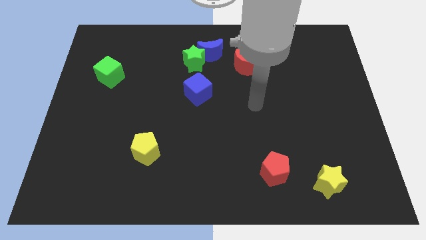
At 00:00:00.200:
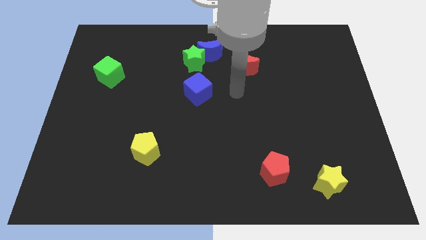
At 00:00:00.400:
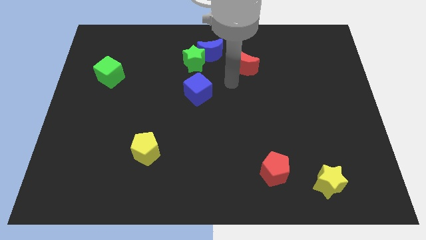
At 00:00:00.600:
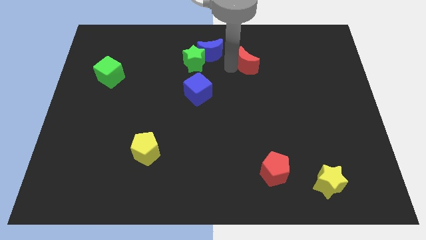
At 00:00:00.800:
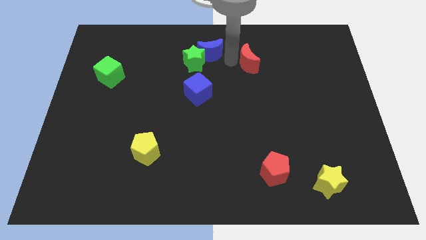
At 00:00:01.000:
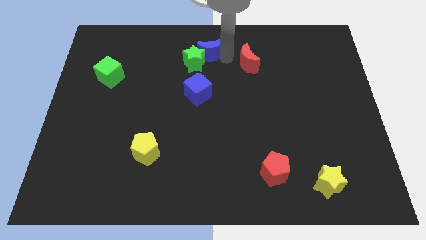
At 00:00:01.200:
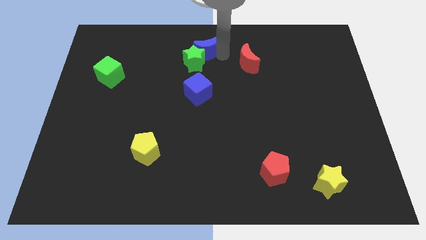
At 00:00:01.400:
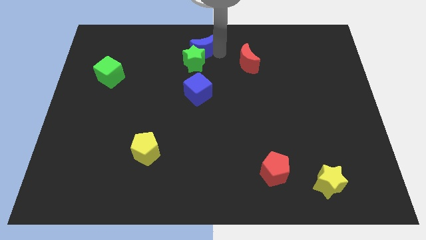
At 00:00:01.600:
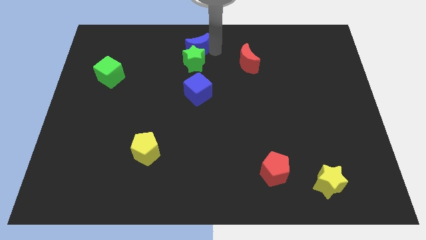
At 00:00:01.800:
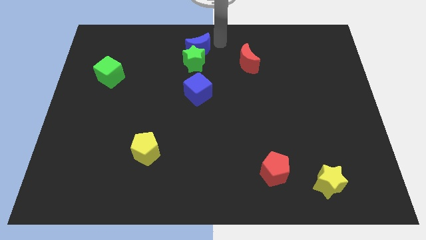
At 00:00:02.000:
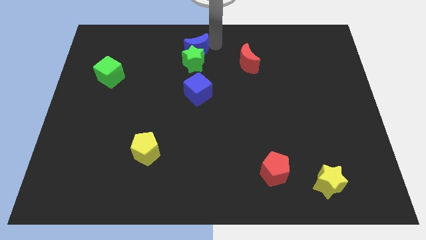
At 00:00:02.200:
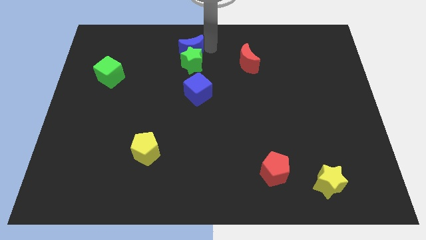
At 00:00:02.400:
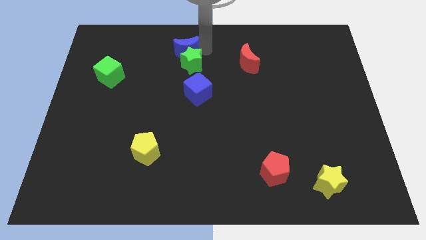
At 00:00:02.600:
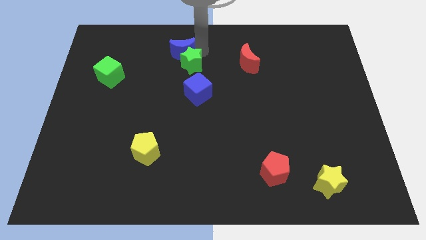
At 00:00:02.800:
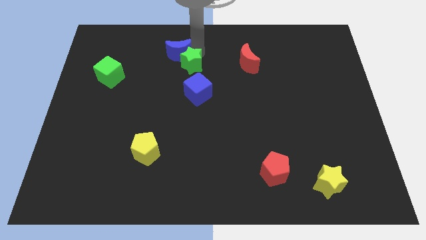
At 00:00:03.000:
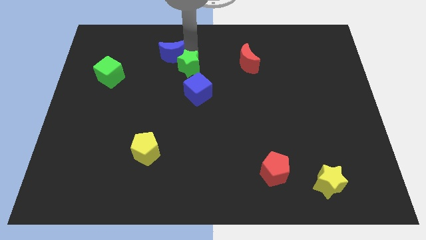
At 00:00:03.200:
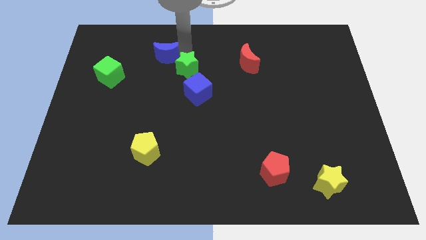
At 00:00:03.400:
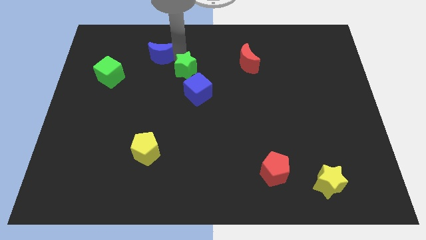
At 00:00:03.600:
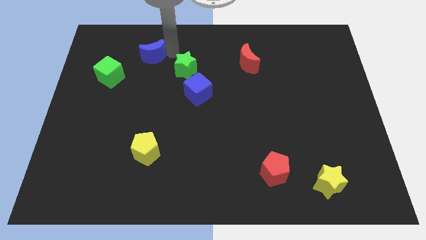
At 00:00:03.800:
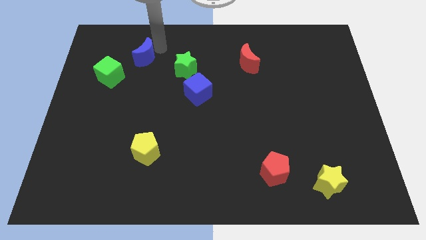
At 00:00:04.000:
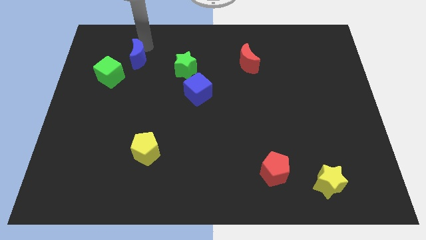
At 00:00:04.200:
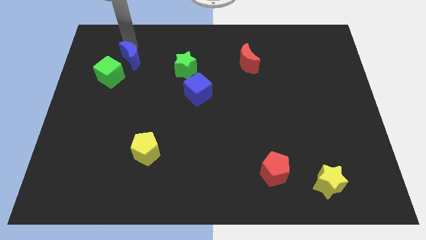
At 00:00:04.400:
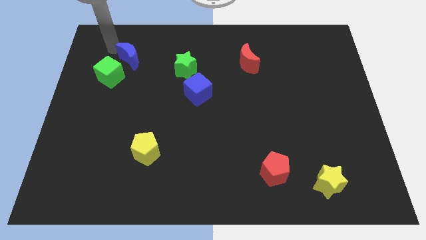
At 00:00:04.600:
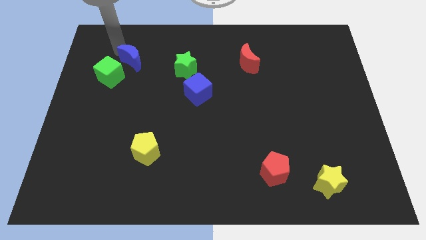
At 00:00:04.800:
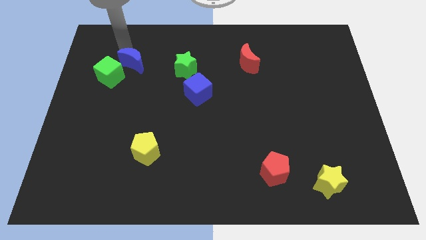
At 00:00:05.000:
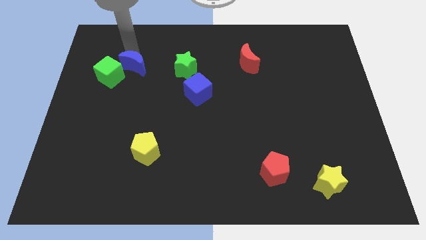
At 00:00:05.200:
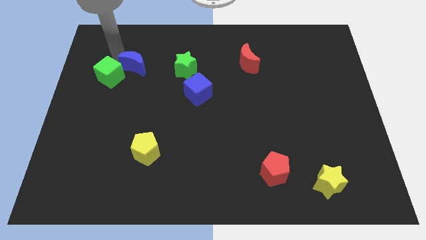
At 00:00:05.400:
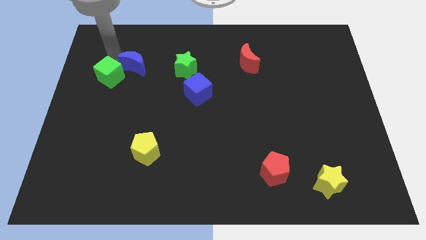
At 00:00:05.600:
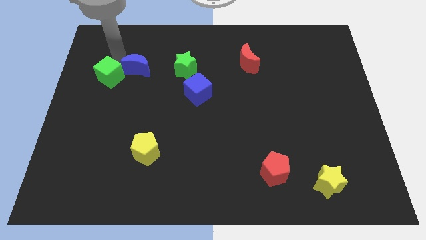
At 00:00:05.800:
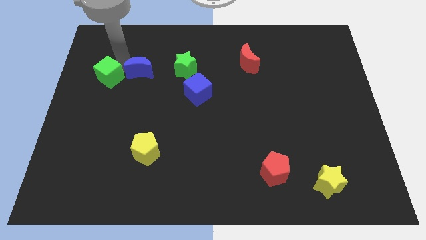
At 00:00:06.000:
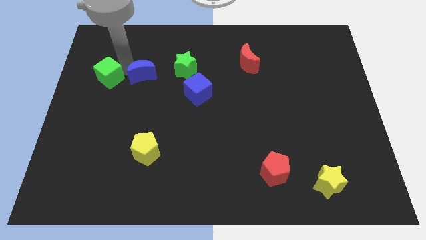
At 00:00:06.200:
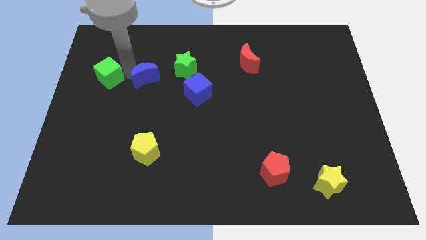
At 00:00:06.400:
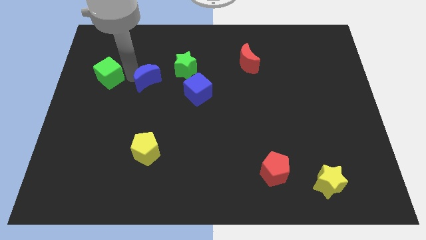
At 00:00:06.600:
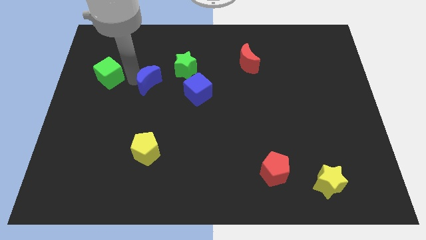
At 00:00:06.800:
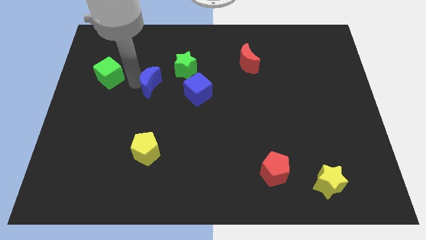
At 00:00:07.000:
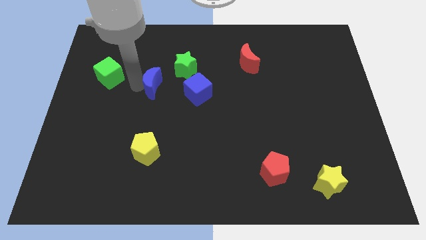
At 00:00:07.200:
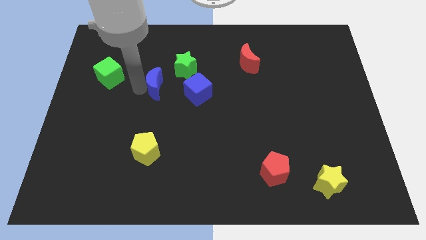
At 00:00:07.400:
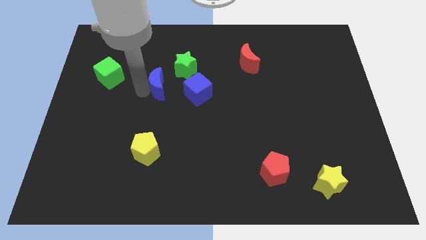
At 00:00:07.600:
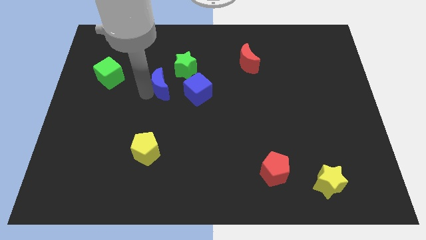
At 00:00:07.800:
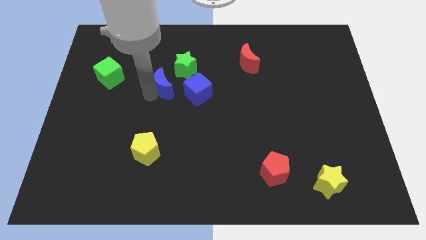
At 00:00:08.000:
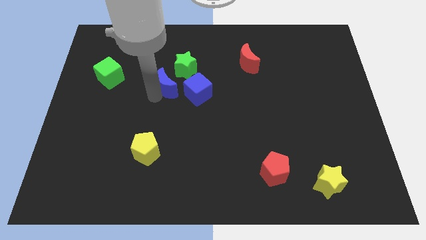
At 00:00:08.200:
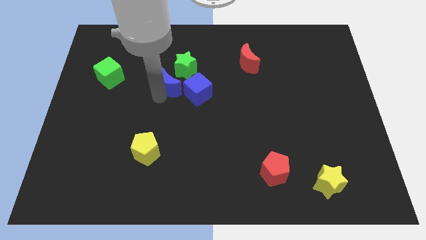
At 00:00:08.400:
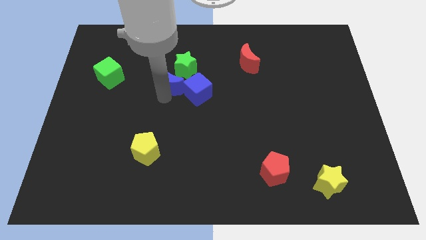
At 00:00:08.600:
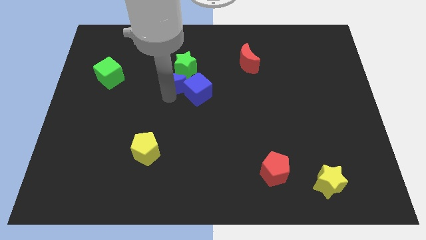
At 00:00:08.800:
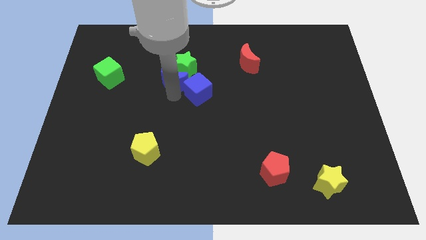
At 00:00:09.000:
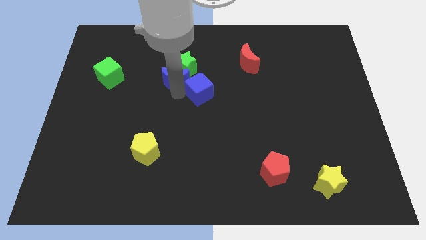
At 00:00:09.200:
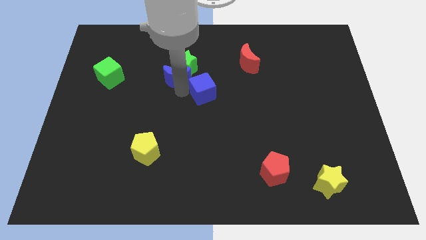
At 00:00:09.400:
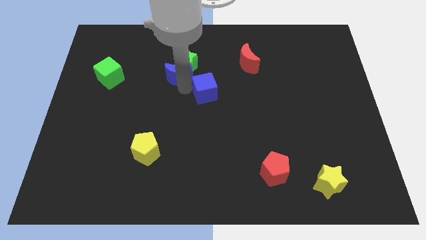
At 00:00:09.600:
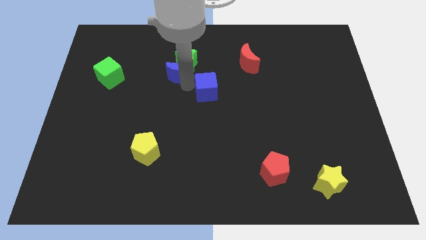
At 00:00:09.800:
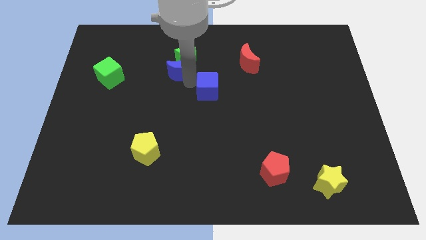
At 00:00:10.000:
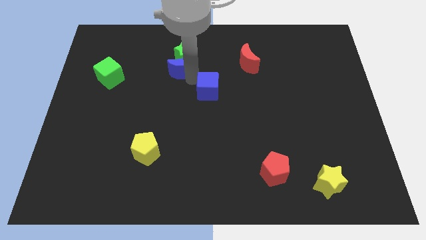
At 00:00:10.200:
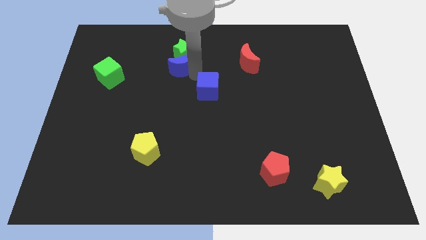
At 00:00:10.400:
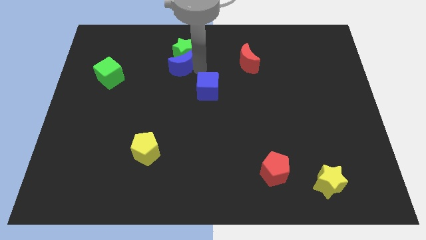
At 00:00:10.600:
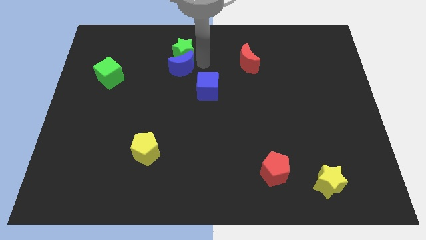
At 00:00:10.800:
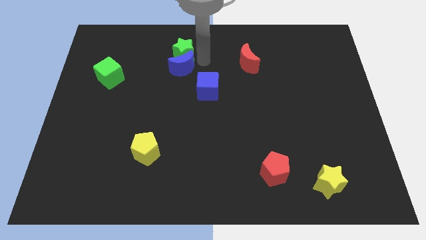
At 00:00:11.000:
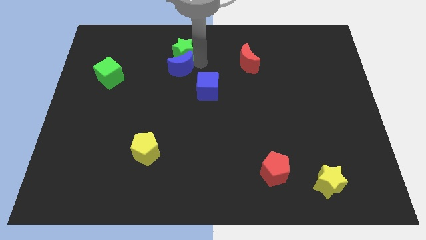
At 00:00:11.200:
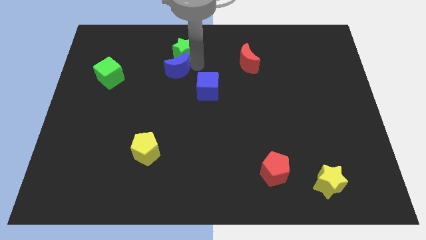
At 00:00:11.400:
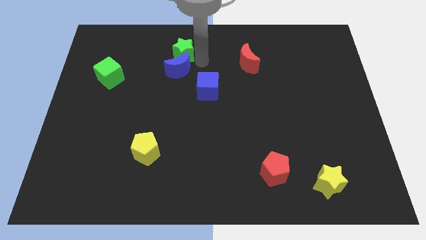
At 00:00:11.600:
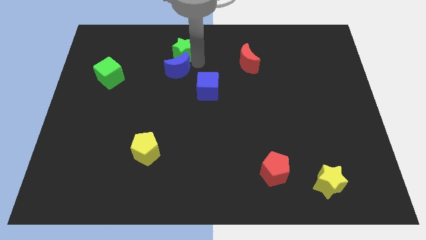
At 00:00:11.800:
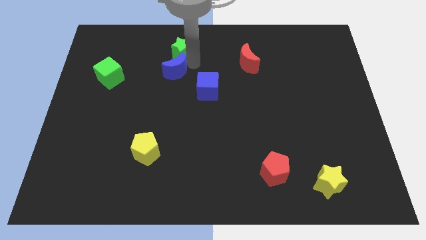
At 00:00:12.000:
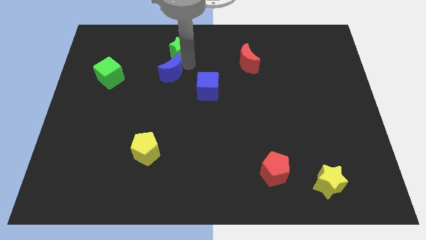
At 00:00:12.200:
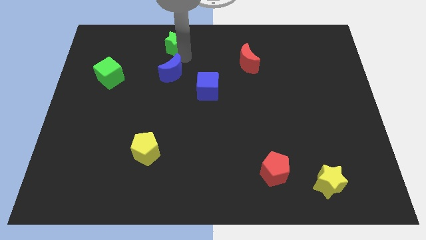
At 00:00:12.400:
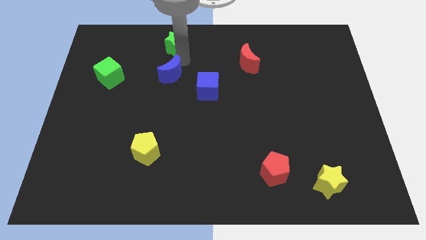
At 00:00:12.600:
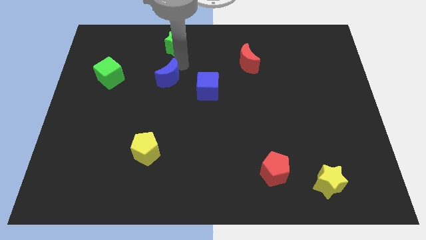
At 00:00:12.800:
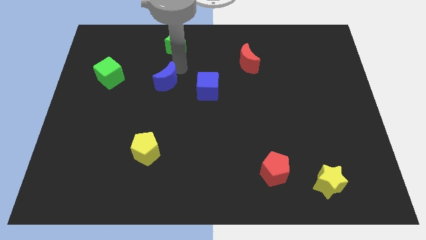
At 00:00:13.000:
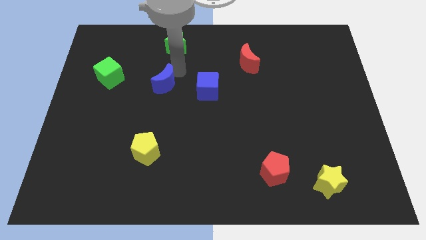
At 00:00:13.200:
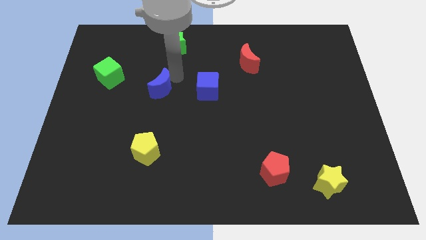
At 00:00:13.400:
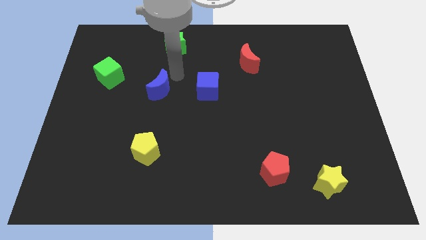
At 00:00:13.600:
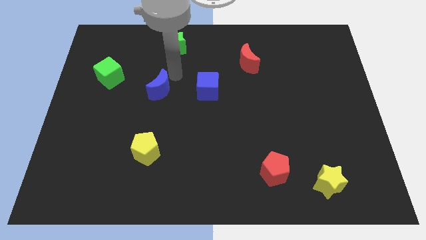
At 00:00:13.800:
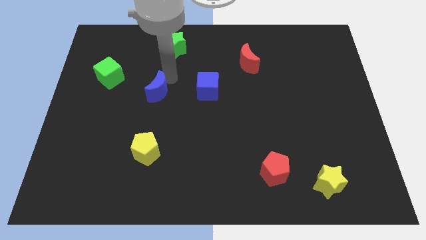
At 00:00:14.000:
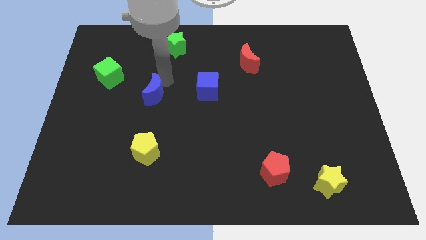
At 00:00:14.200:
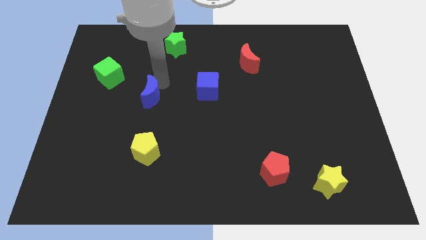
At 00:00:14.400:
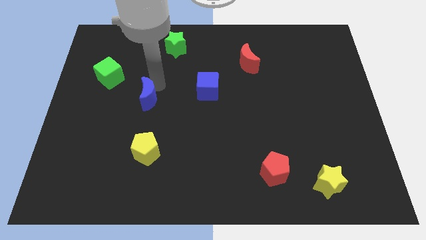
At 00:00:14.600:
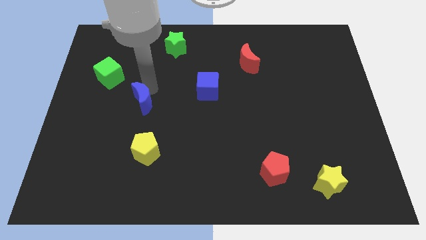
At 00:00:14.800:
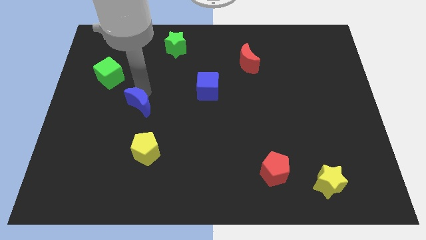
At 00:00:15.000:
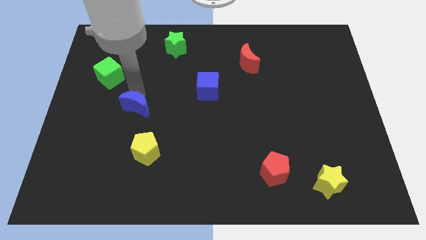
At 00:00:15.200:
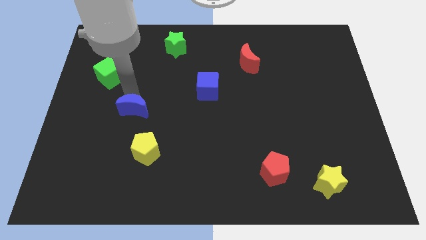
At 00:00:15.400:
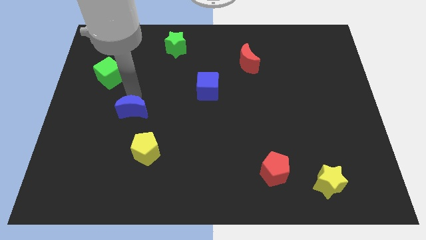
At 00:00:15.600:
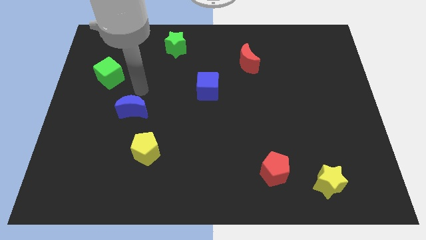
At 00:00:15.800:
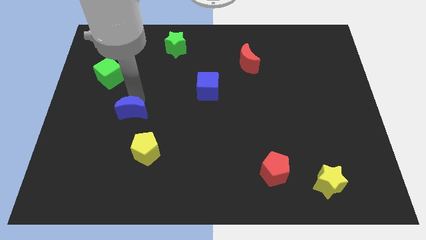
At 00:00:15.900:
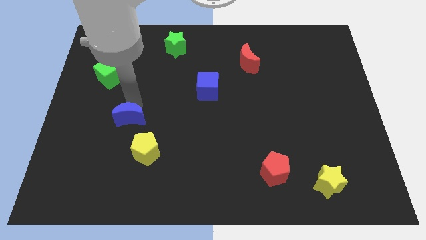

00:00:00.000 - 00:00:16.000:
push the blue moon to the top left side of the yellow pentagon
